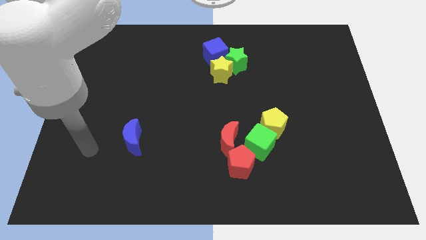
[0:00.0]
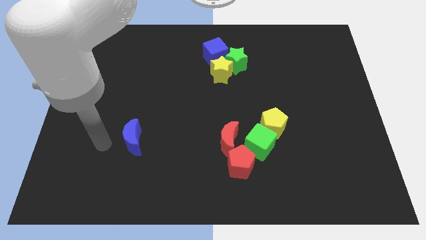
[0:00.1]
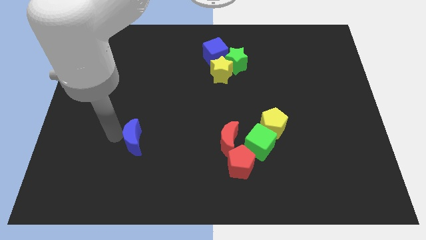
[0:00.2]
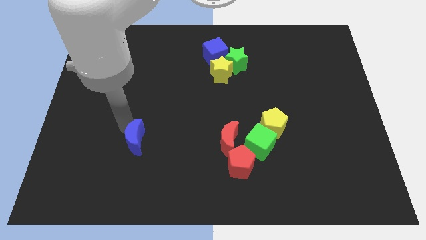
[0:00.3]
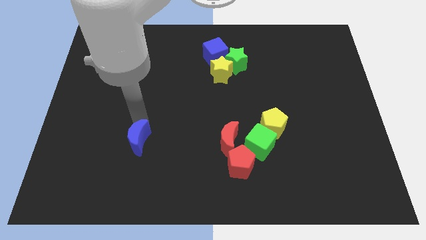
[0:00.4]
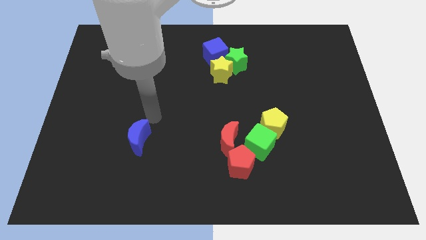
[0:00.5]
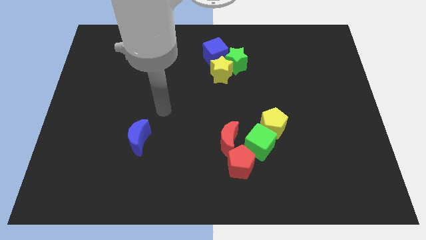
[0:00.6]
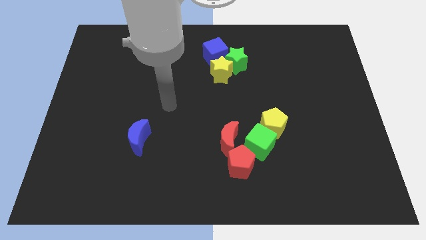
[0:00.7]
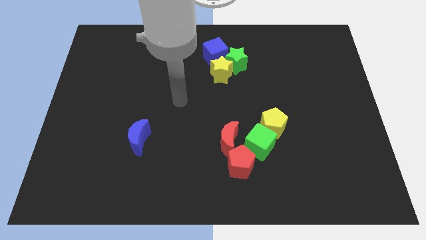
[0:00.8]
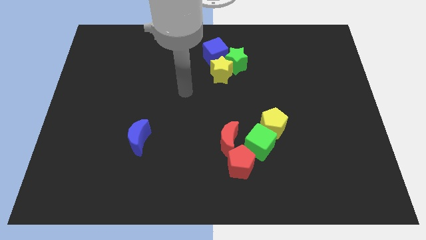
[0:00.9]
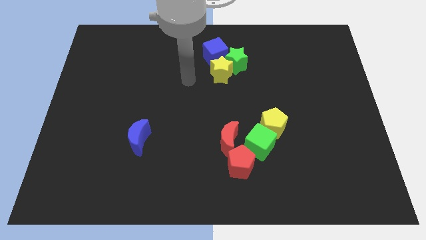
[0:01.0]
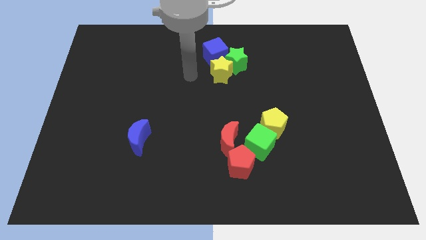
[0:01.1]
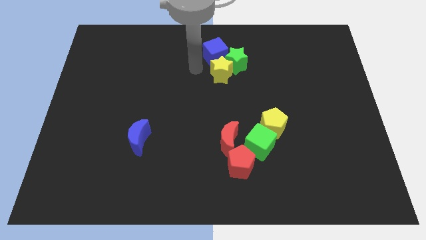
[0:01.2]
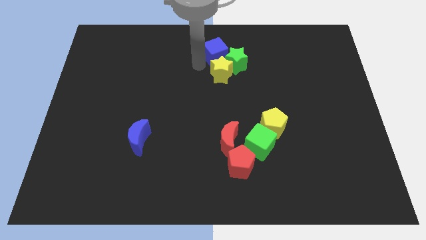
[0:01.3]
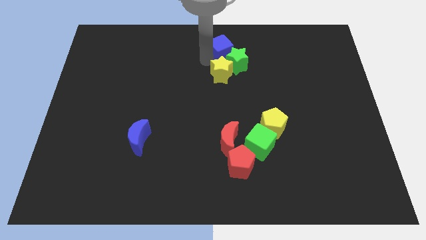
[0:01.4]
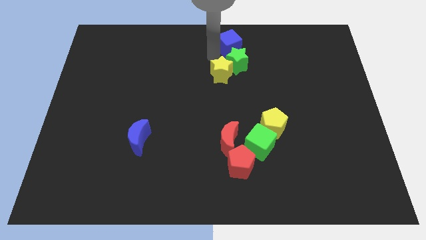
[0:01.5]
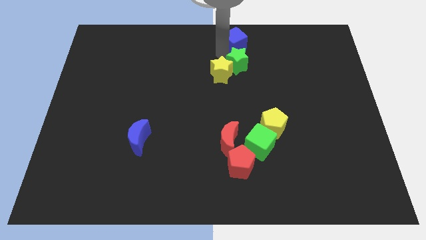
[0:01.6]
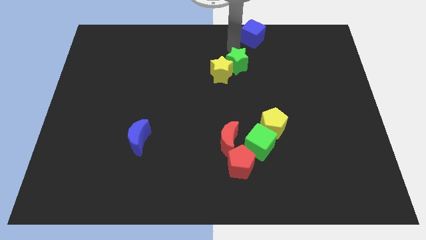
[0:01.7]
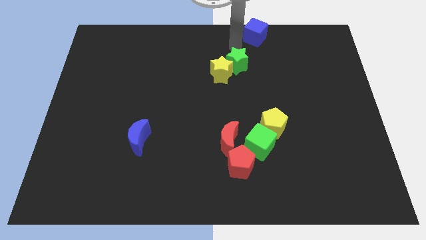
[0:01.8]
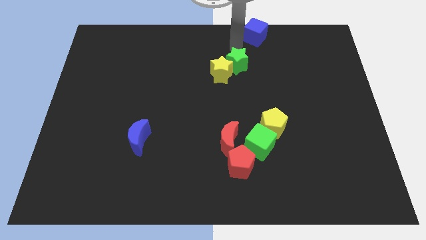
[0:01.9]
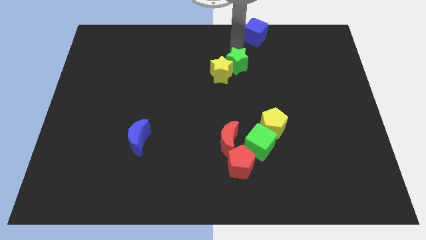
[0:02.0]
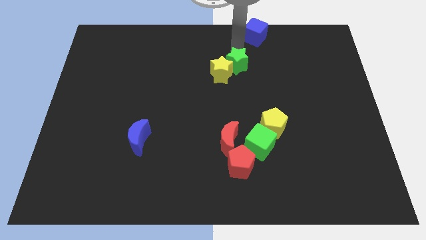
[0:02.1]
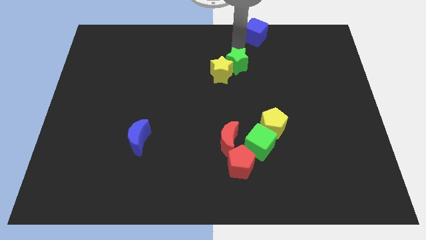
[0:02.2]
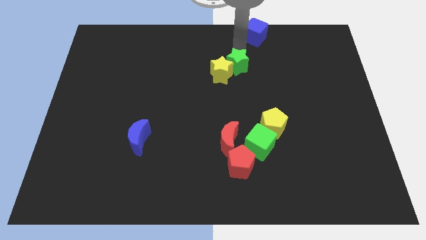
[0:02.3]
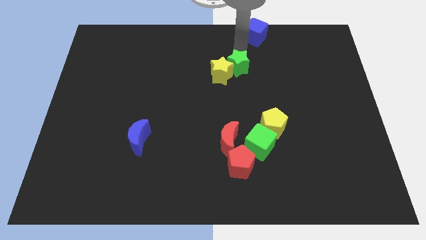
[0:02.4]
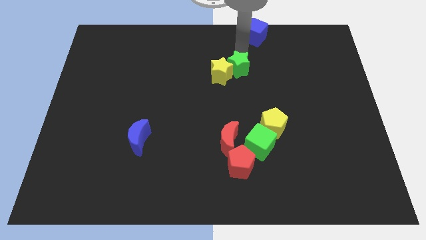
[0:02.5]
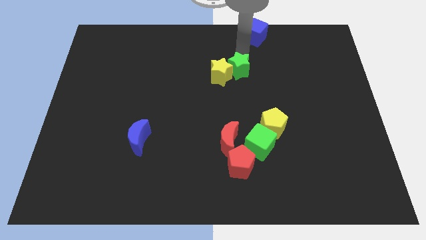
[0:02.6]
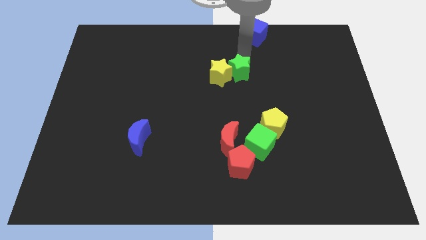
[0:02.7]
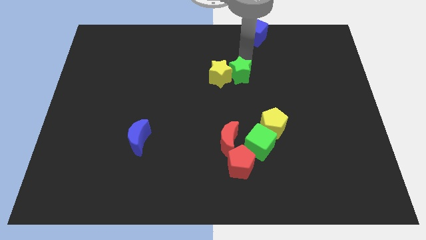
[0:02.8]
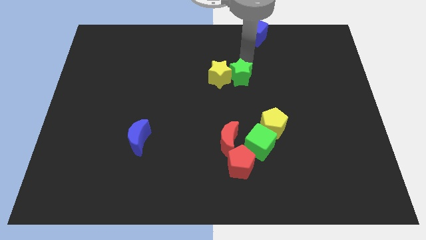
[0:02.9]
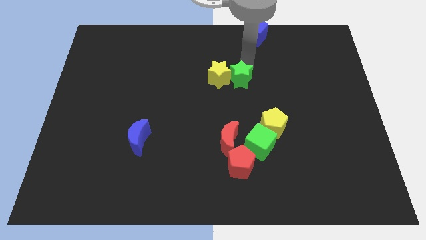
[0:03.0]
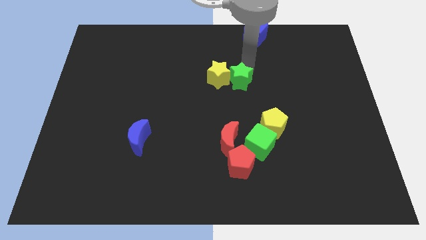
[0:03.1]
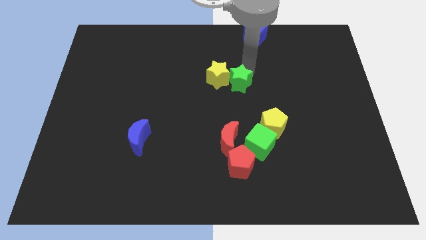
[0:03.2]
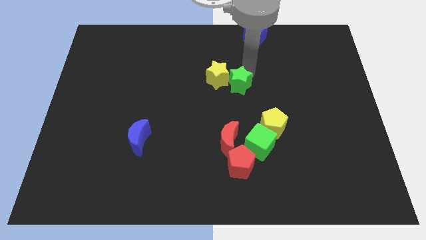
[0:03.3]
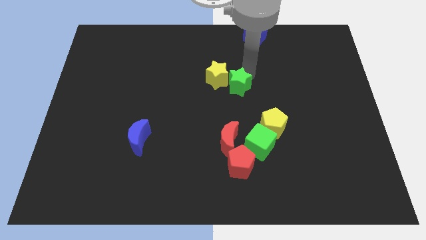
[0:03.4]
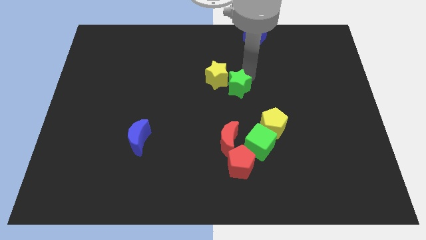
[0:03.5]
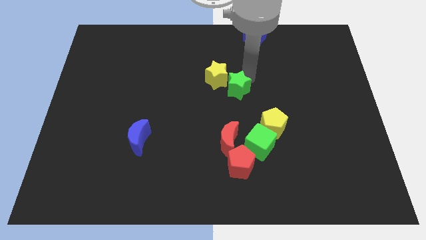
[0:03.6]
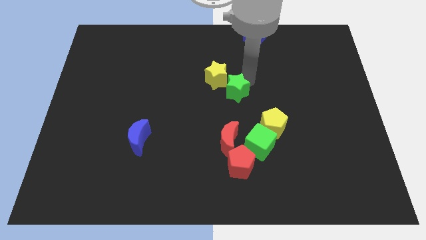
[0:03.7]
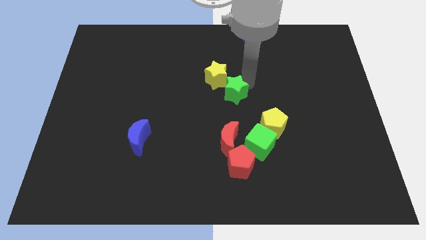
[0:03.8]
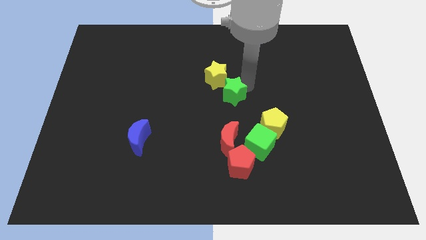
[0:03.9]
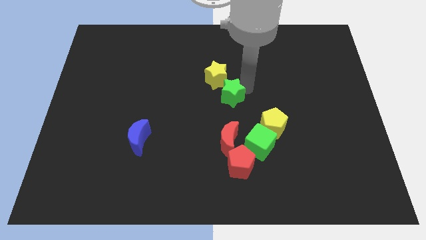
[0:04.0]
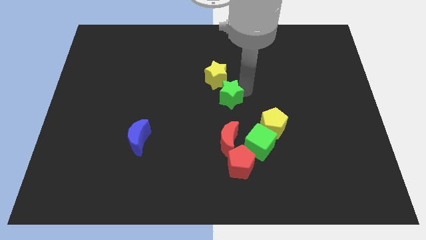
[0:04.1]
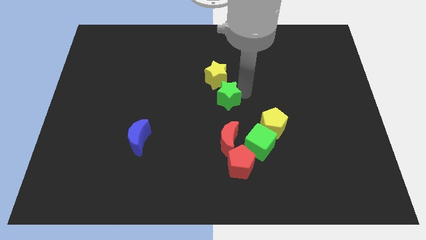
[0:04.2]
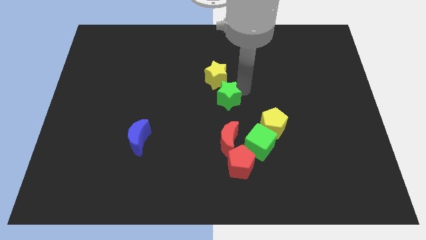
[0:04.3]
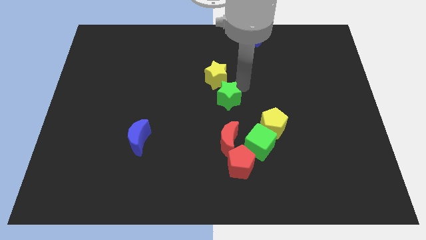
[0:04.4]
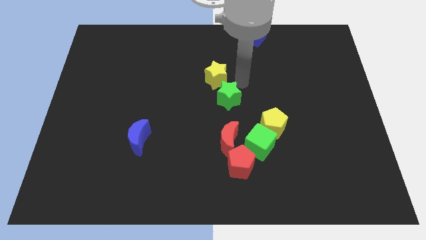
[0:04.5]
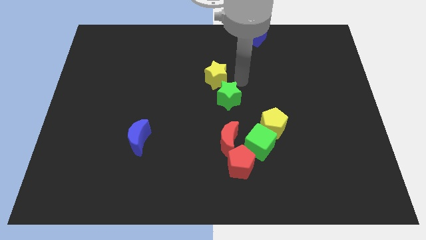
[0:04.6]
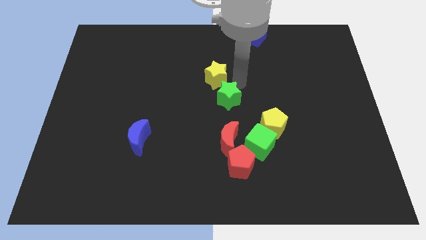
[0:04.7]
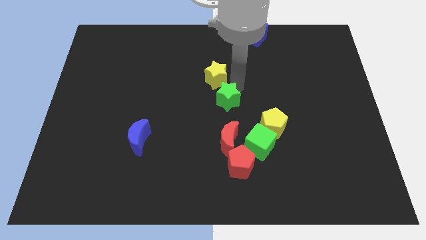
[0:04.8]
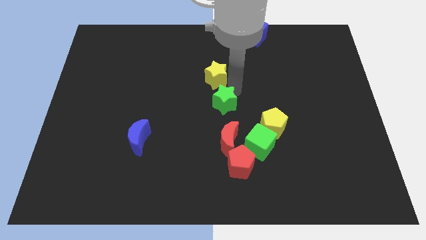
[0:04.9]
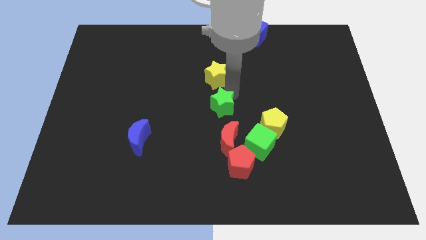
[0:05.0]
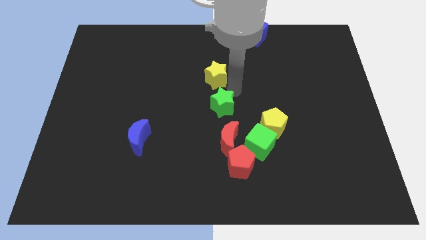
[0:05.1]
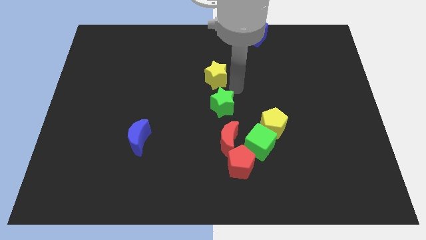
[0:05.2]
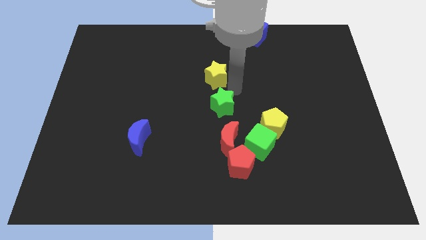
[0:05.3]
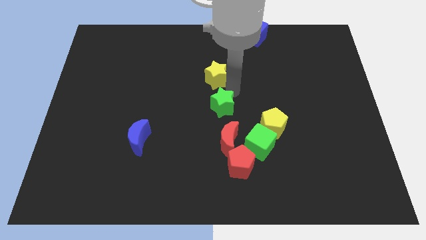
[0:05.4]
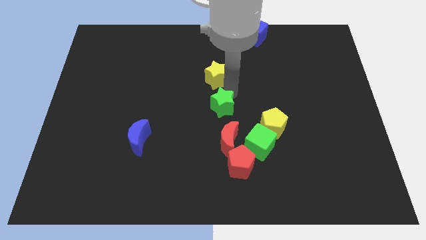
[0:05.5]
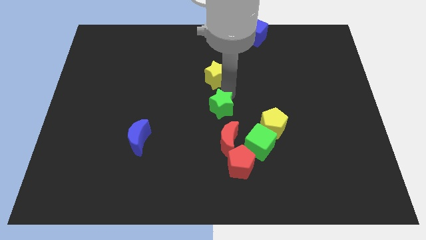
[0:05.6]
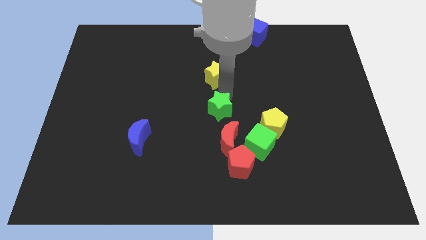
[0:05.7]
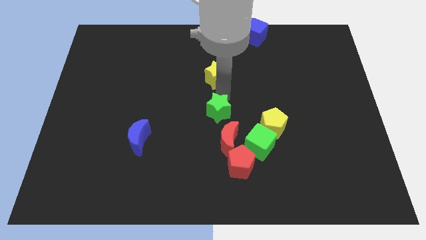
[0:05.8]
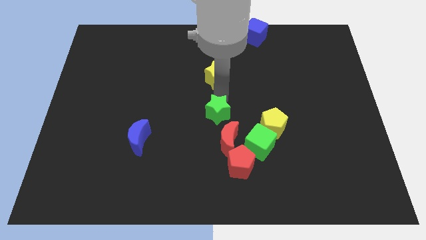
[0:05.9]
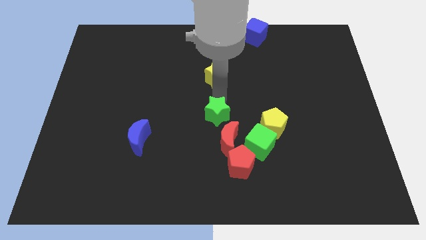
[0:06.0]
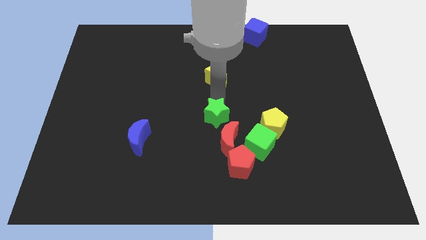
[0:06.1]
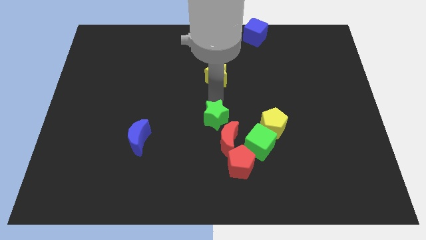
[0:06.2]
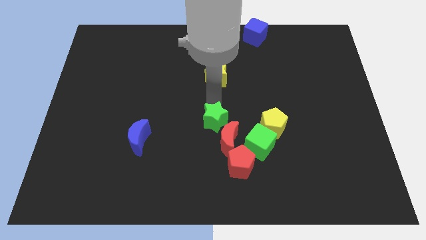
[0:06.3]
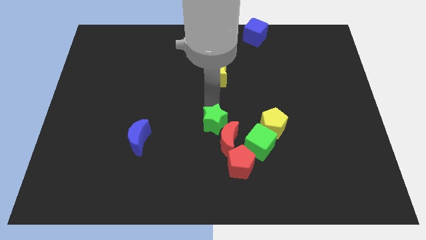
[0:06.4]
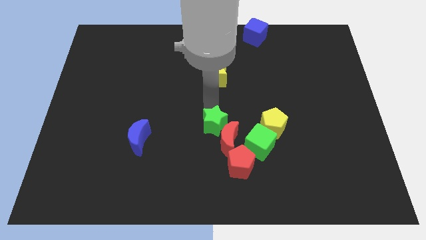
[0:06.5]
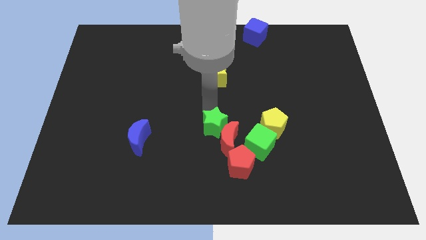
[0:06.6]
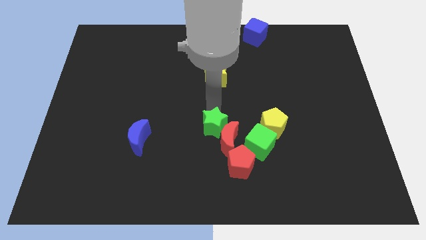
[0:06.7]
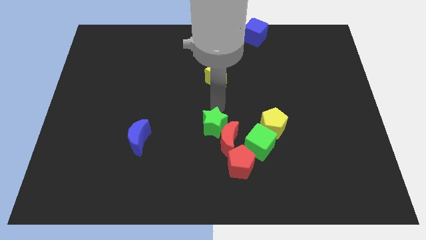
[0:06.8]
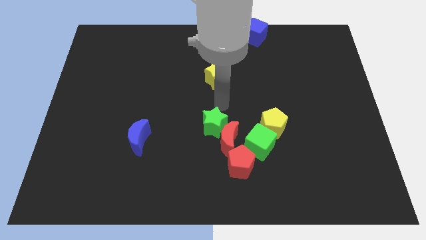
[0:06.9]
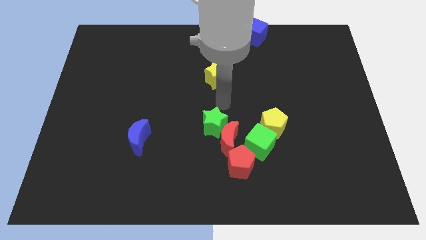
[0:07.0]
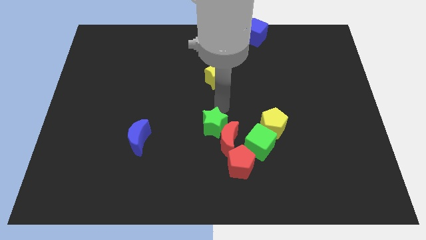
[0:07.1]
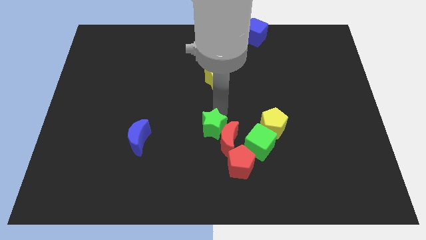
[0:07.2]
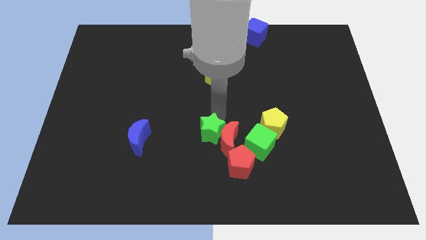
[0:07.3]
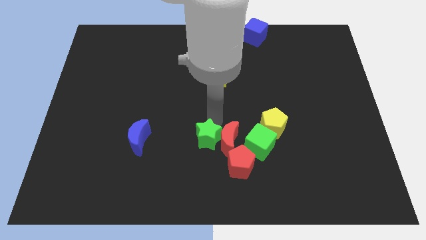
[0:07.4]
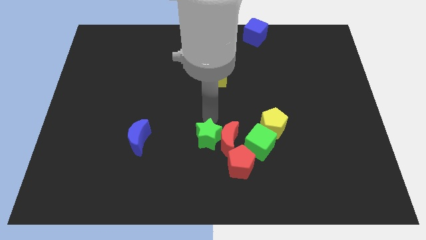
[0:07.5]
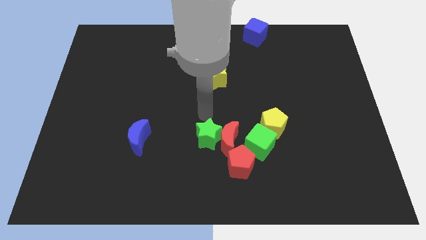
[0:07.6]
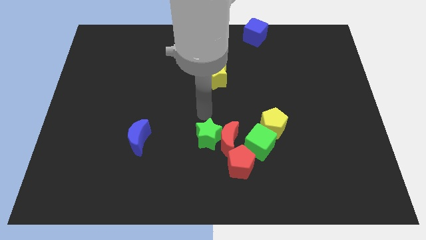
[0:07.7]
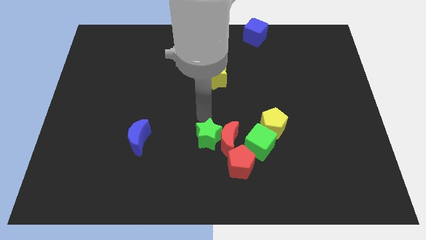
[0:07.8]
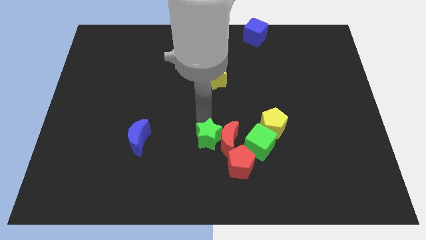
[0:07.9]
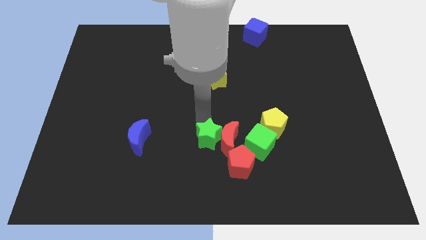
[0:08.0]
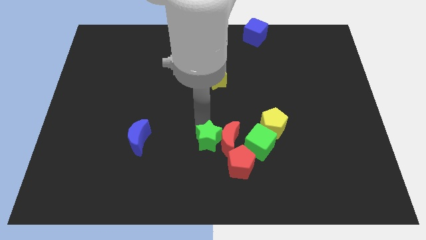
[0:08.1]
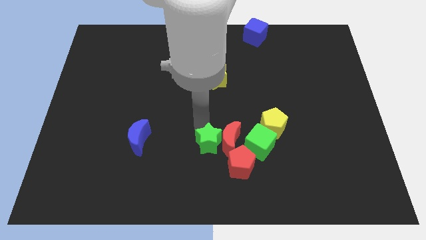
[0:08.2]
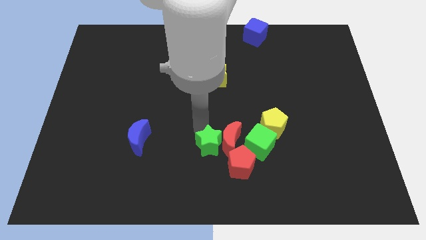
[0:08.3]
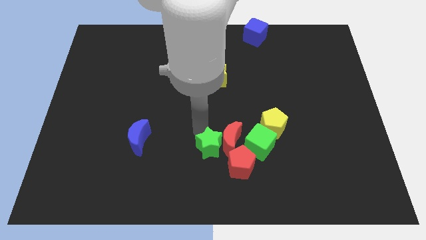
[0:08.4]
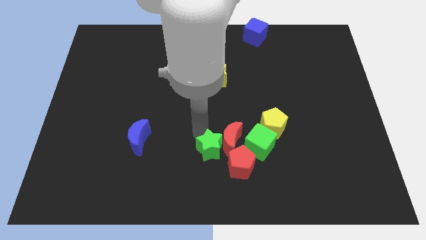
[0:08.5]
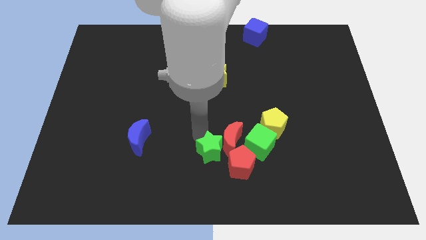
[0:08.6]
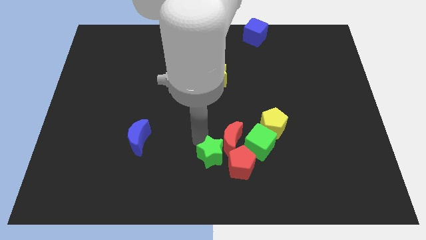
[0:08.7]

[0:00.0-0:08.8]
slide the green star to the bottom side
